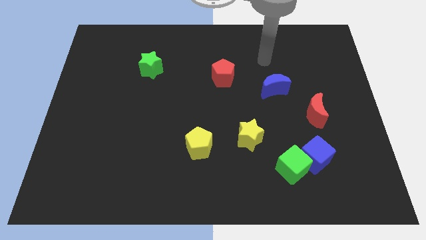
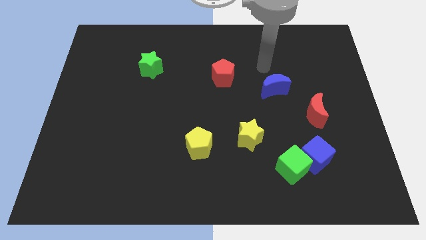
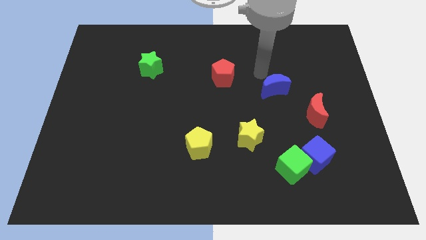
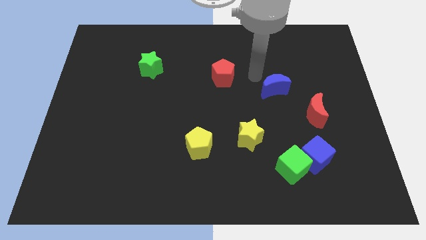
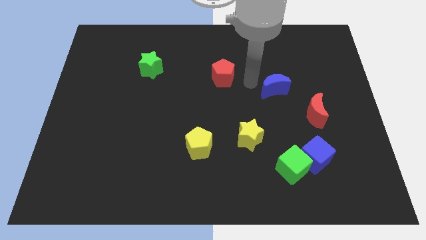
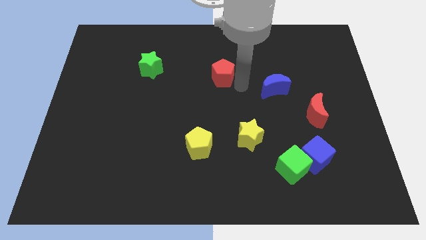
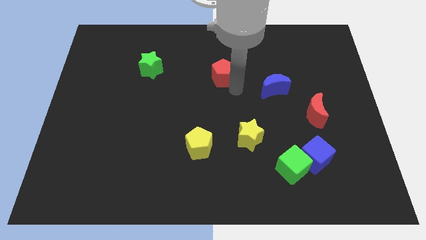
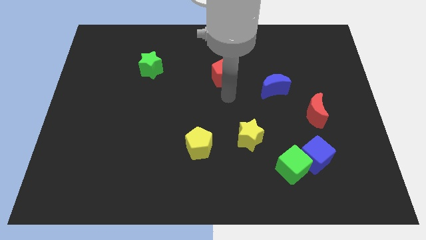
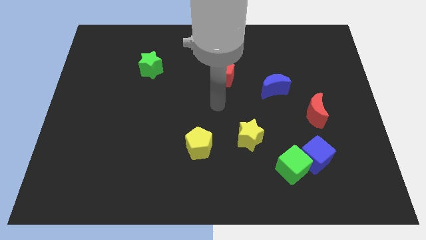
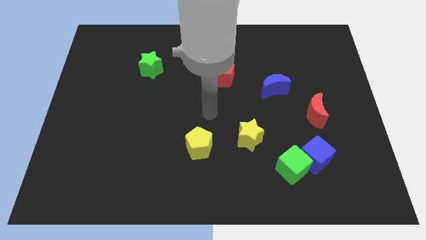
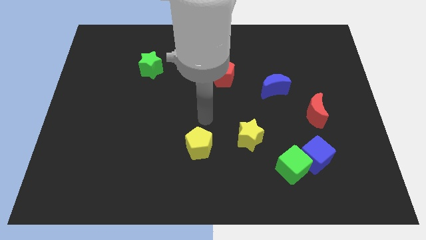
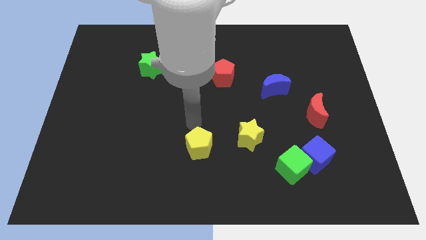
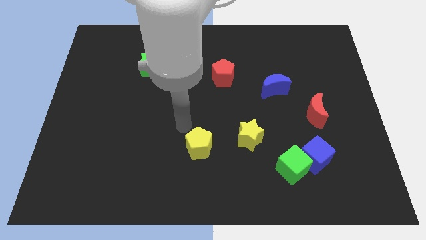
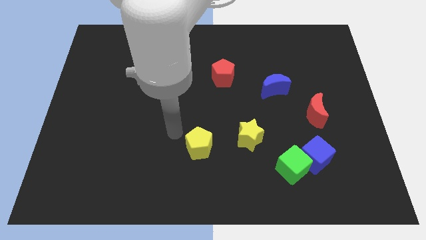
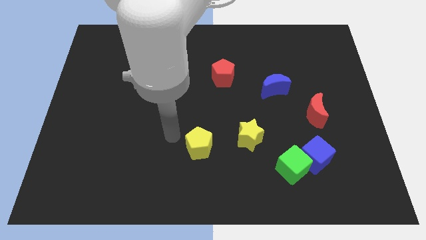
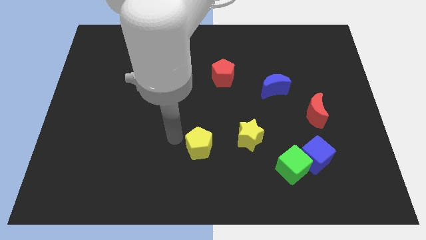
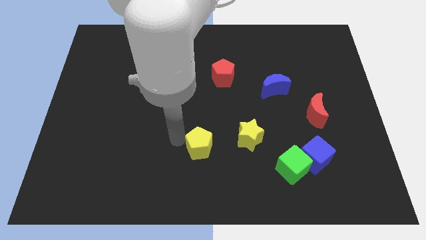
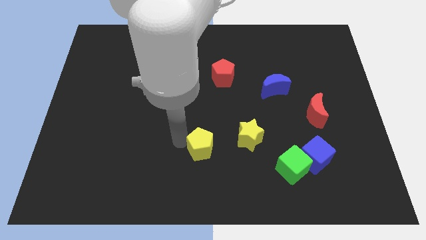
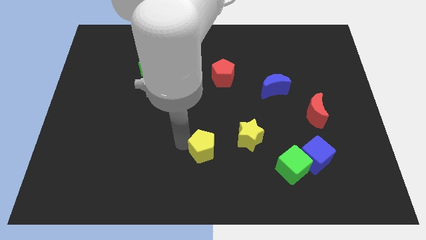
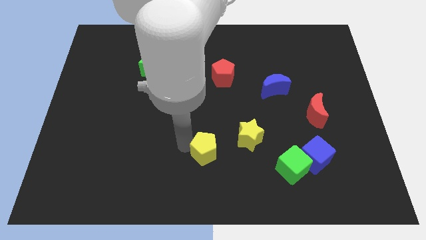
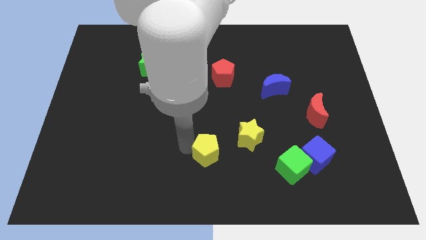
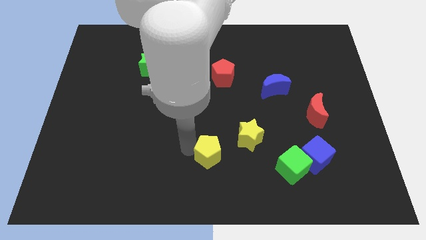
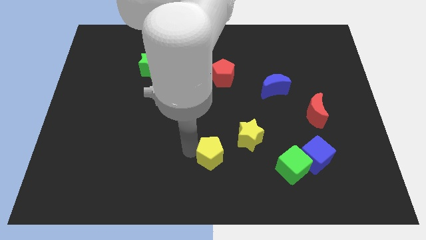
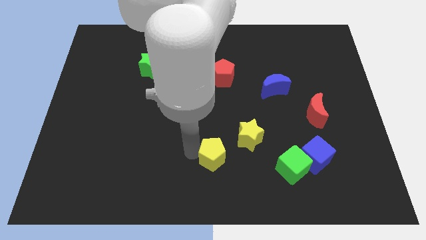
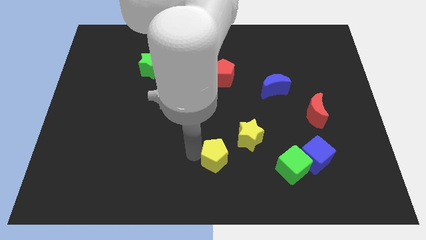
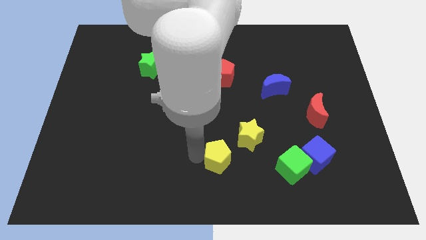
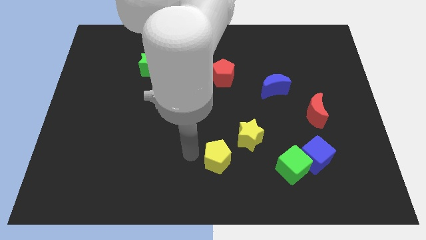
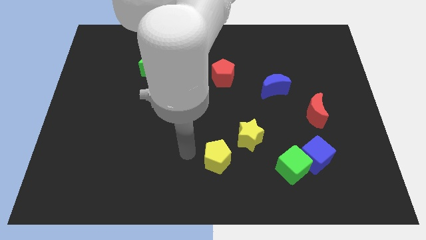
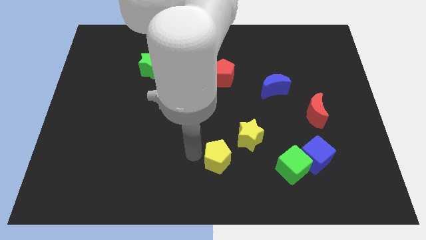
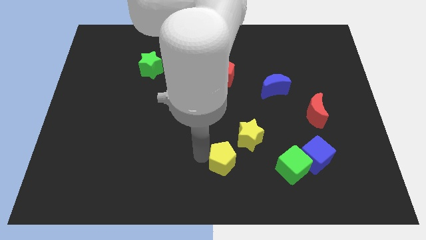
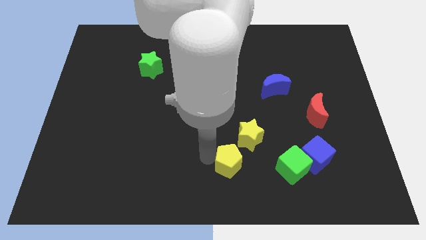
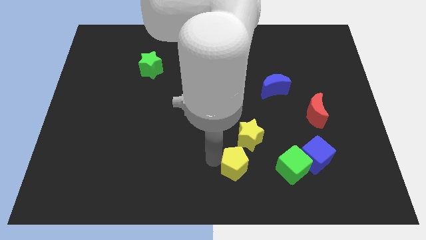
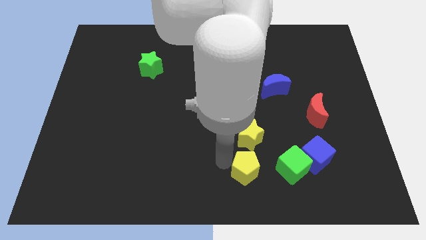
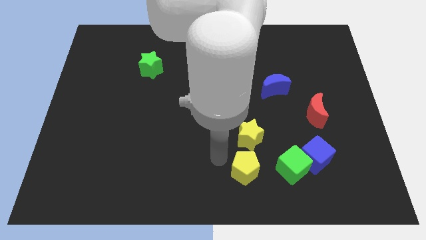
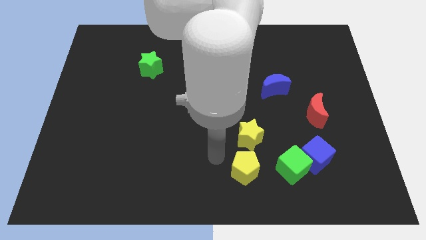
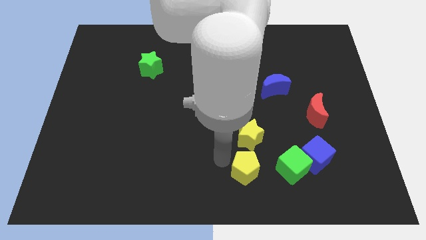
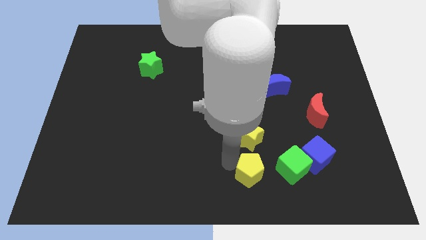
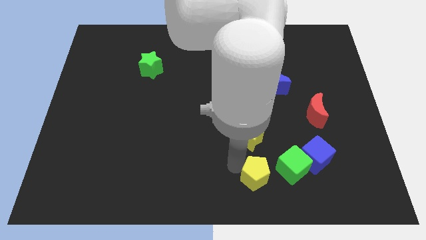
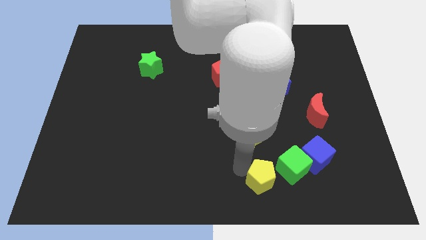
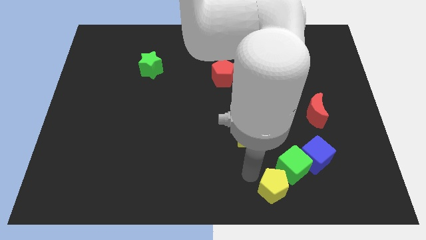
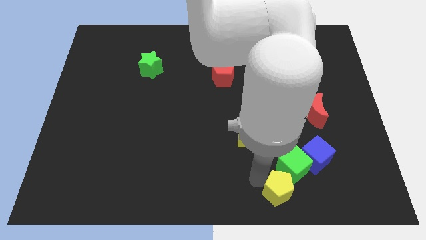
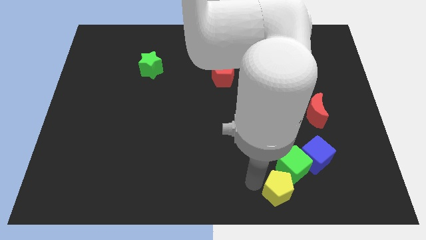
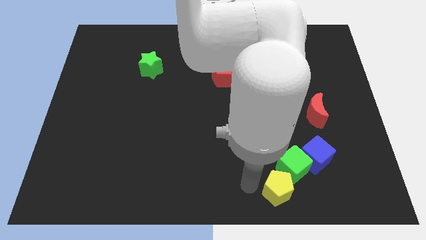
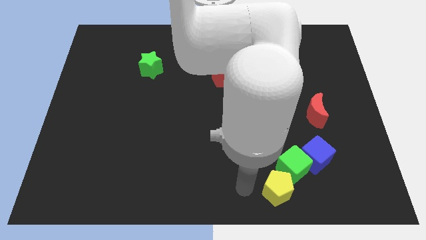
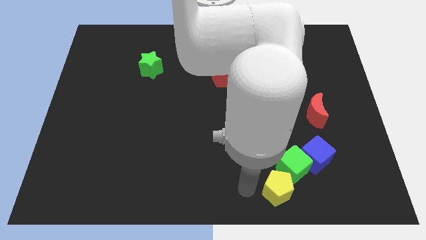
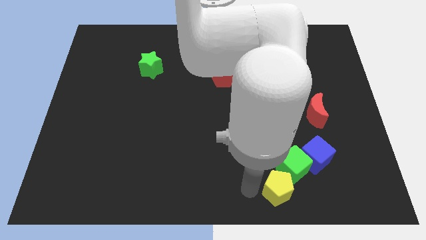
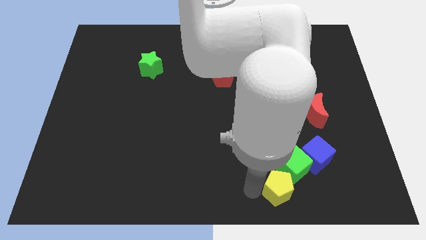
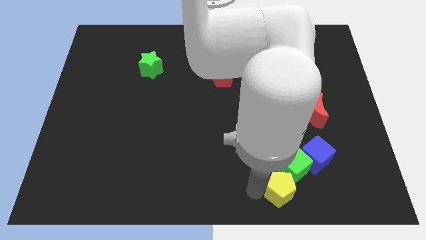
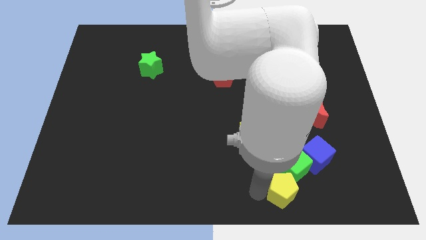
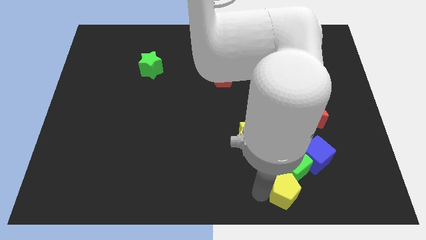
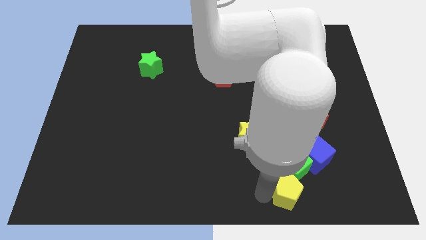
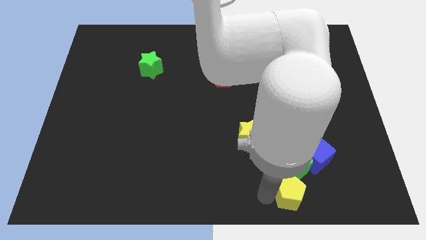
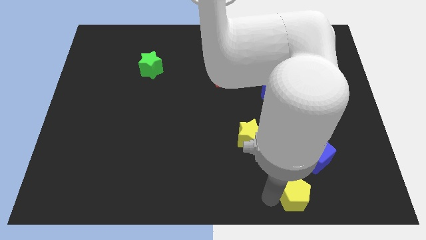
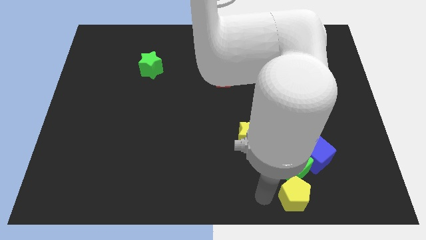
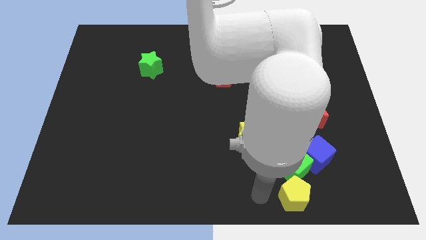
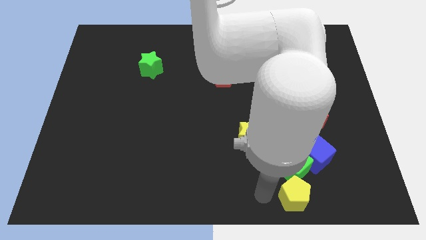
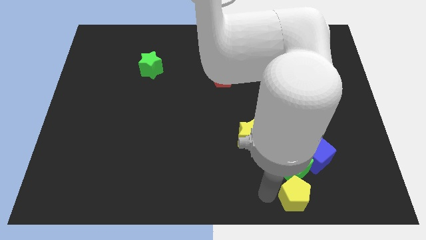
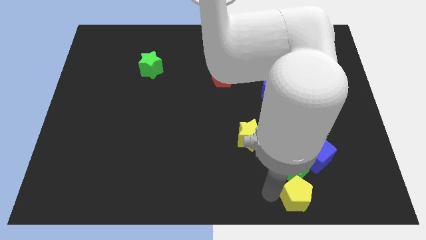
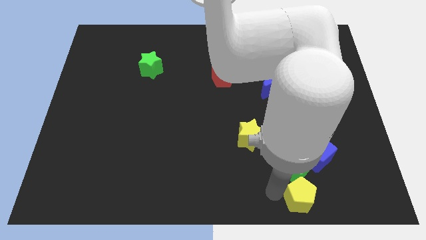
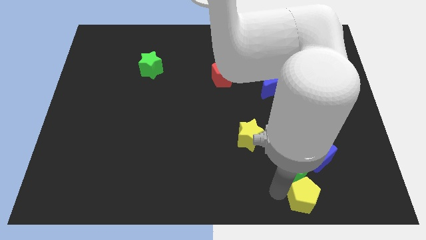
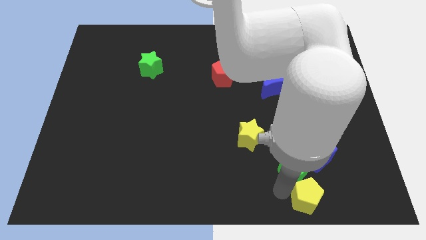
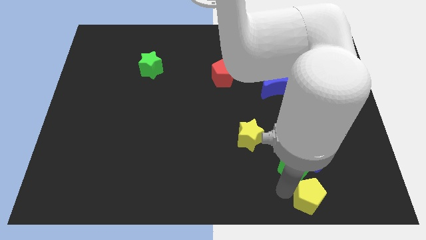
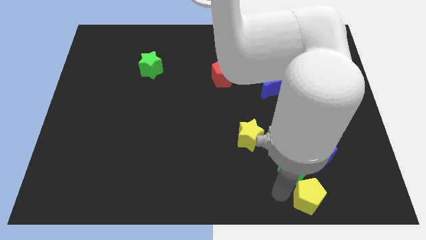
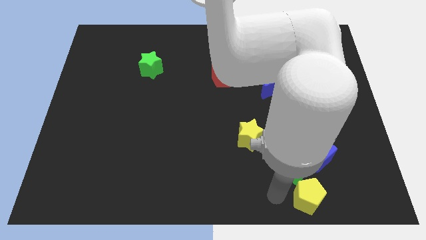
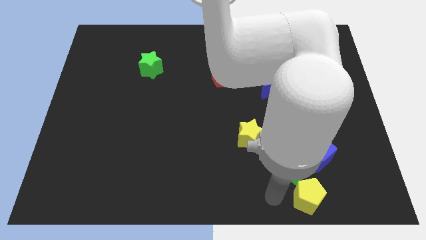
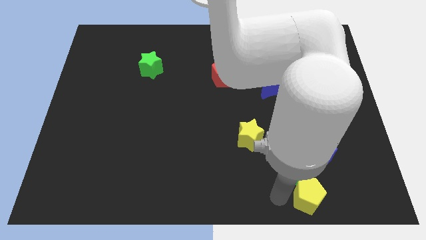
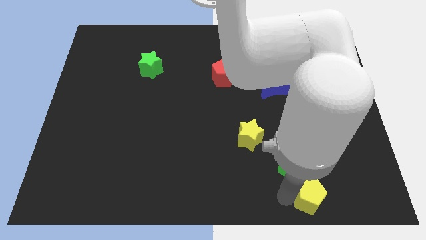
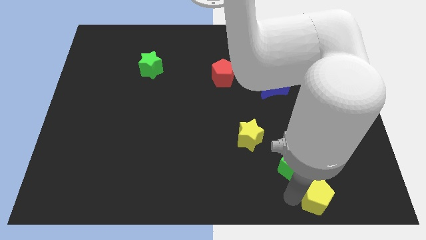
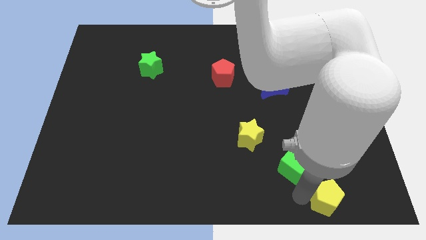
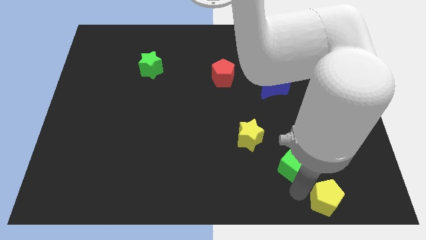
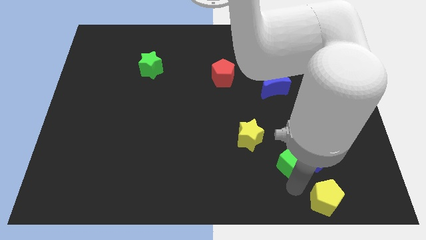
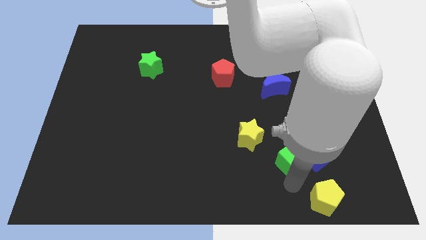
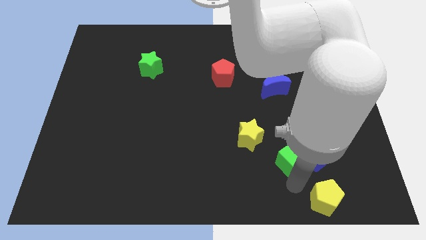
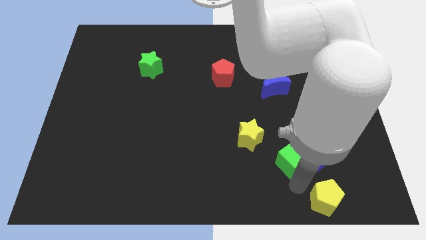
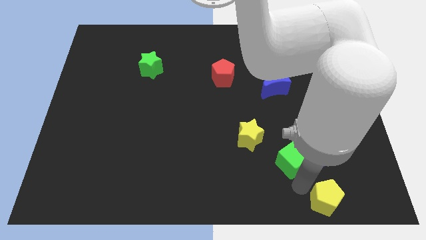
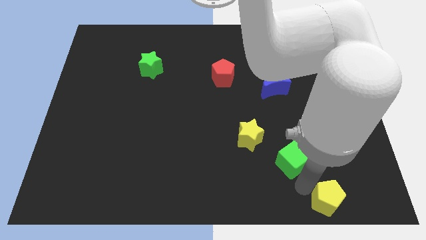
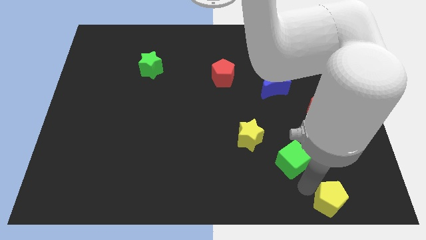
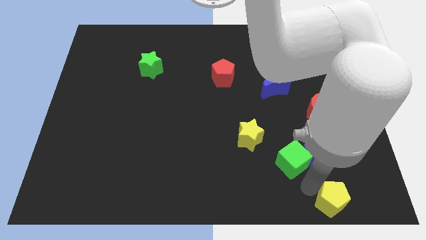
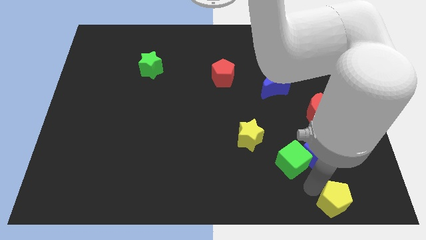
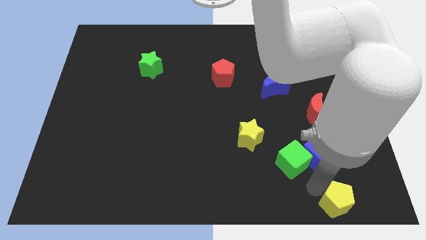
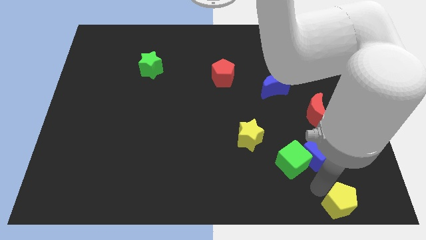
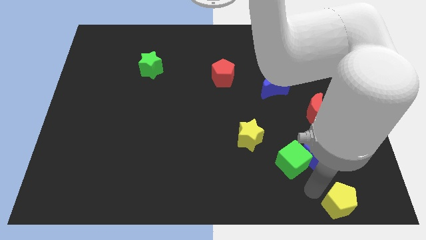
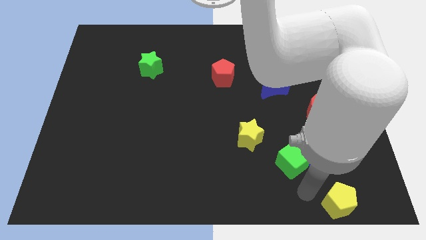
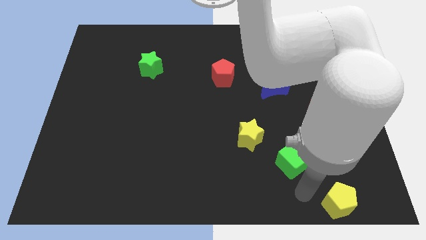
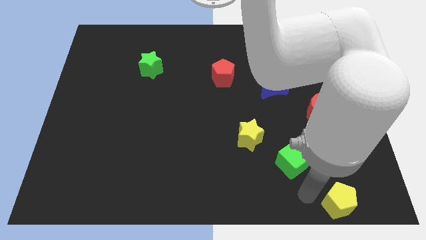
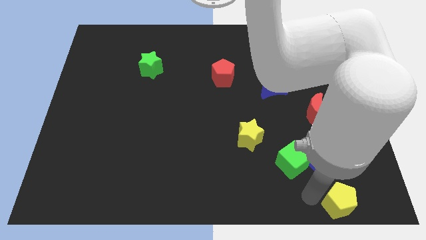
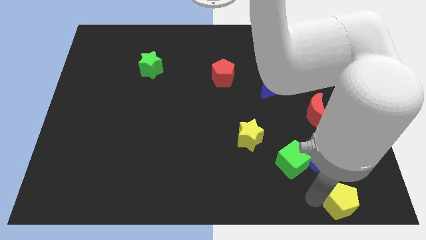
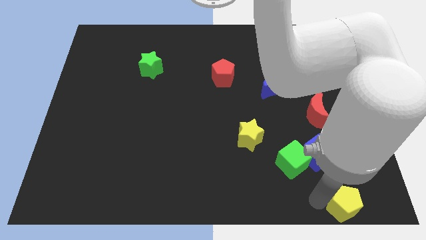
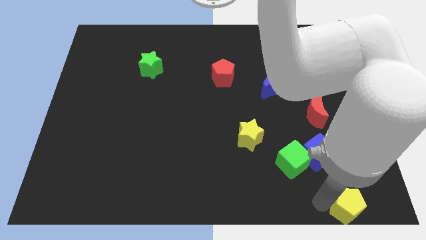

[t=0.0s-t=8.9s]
move the yellow pentagon to the bottom right
